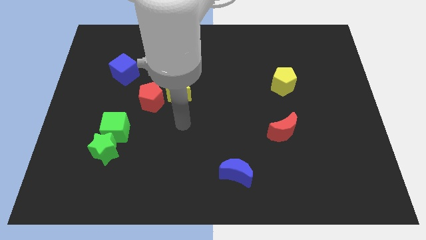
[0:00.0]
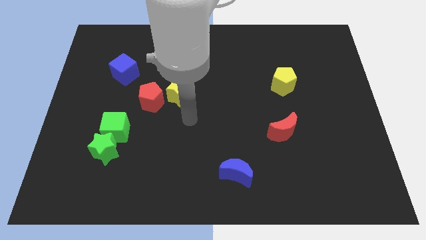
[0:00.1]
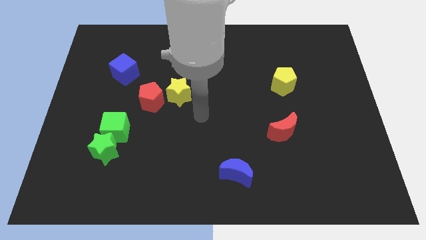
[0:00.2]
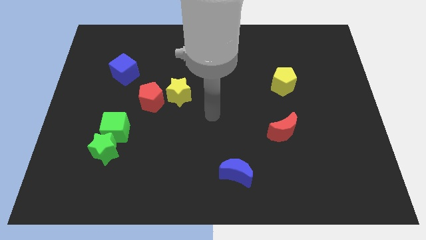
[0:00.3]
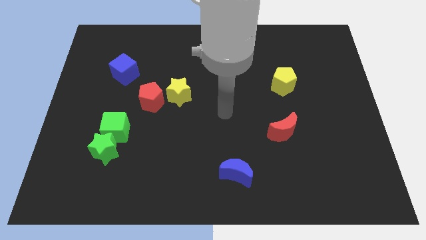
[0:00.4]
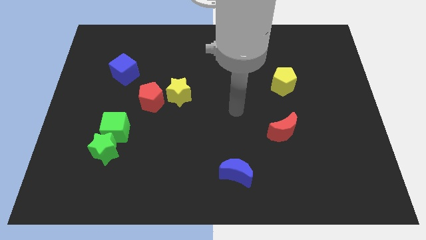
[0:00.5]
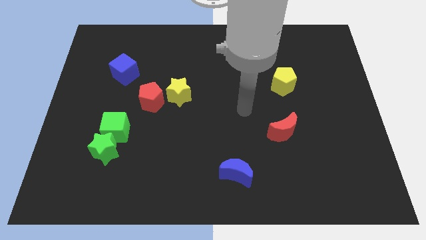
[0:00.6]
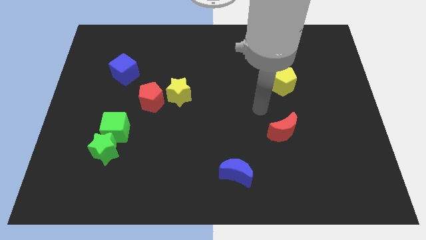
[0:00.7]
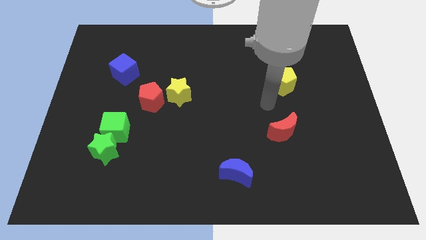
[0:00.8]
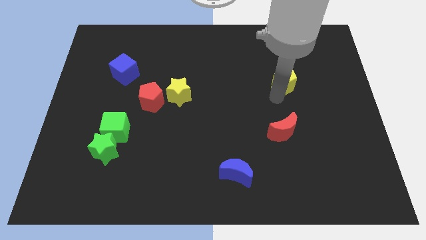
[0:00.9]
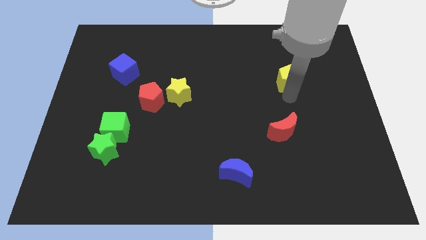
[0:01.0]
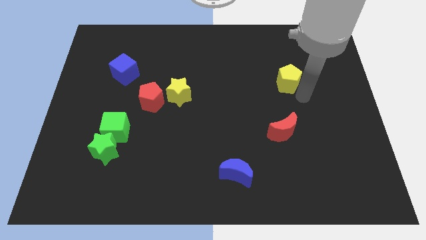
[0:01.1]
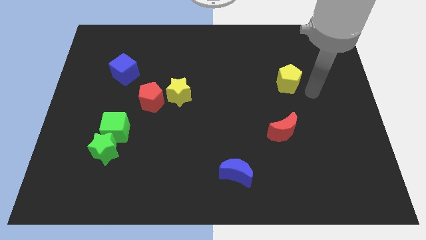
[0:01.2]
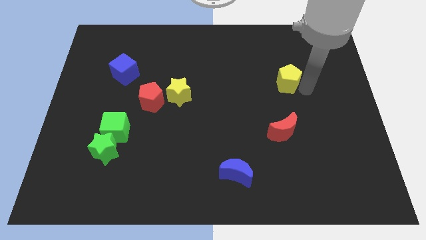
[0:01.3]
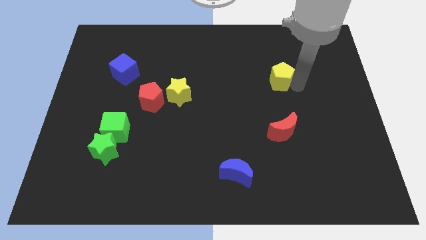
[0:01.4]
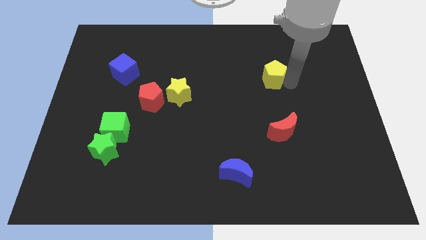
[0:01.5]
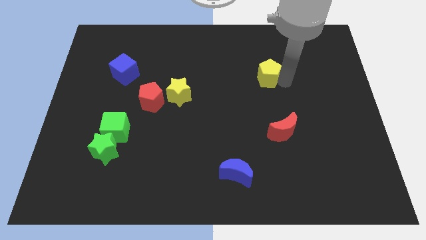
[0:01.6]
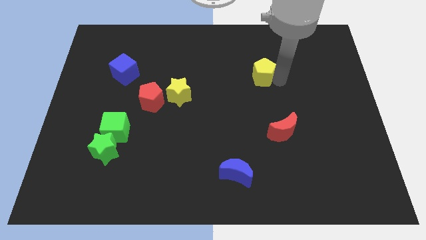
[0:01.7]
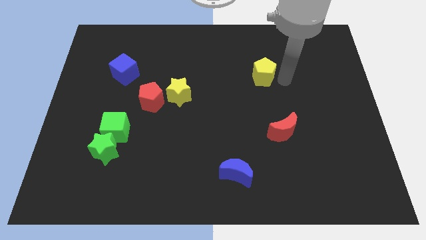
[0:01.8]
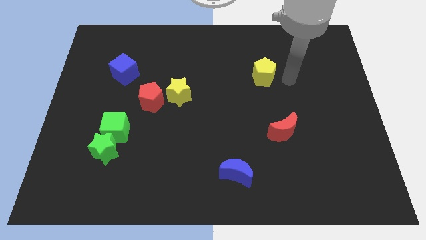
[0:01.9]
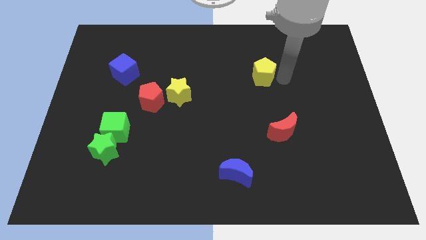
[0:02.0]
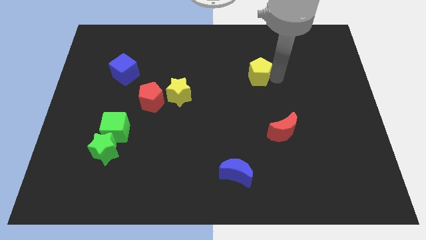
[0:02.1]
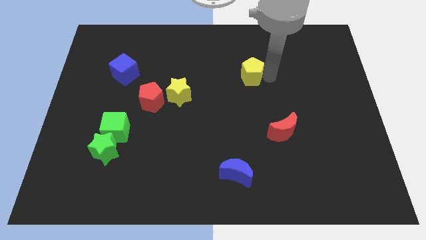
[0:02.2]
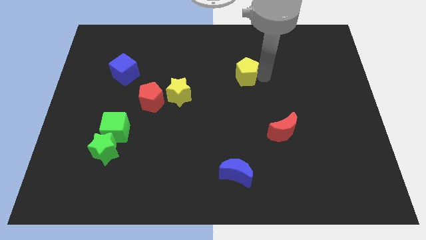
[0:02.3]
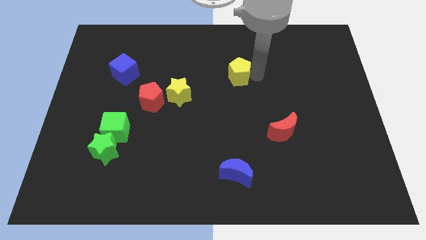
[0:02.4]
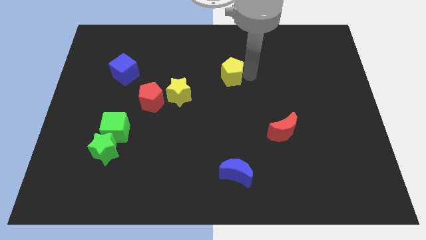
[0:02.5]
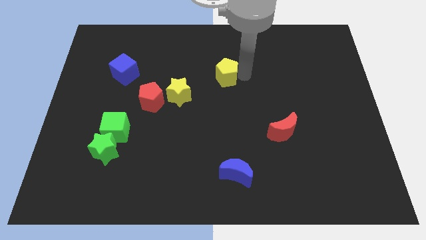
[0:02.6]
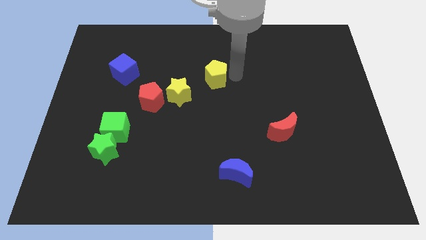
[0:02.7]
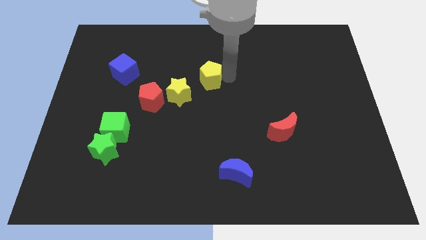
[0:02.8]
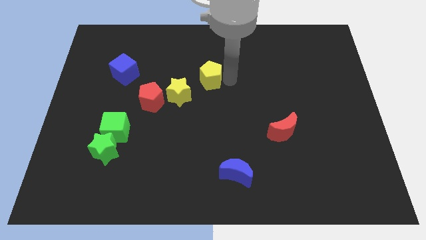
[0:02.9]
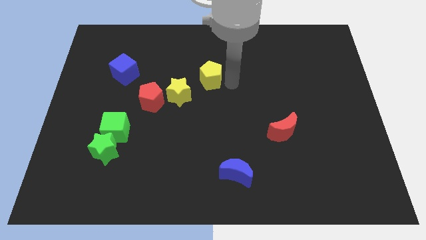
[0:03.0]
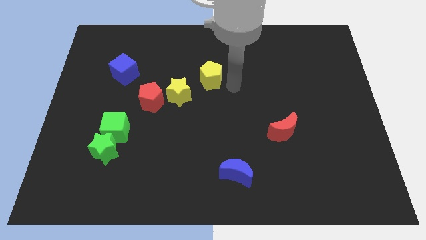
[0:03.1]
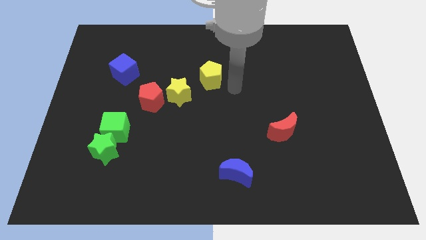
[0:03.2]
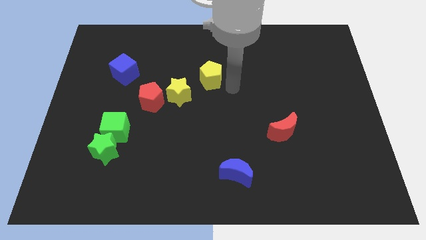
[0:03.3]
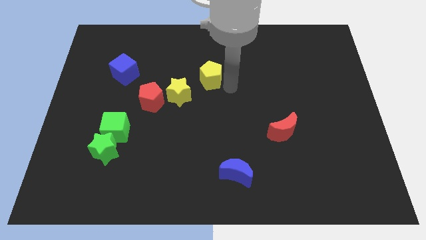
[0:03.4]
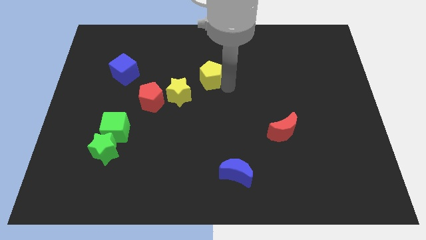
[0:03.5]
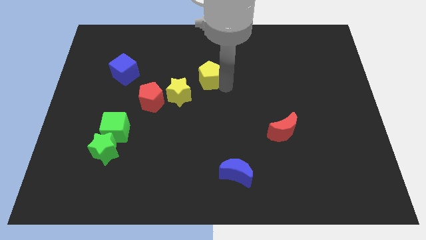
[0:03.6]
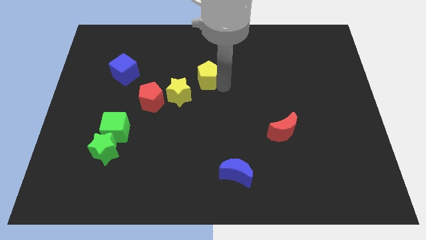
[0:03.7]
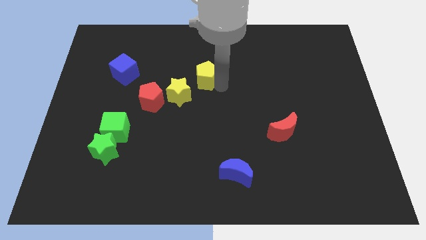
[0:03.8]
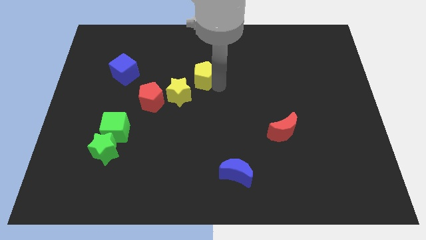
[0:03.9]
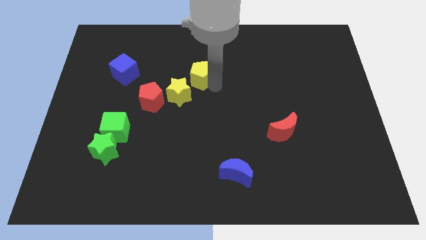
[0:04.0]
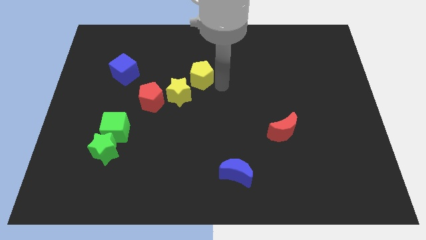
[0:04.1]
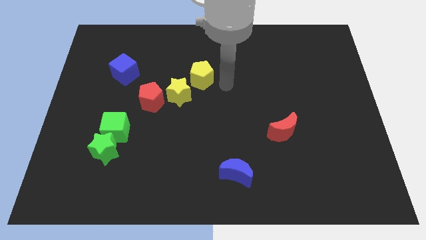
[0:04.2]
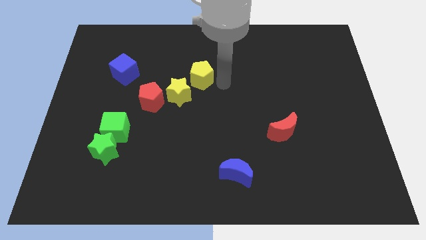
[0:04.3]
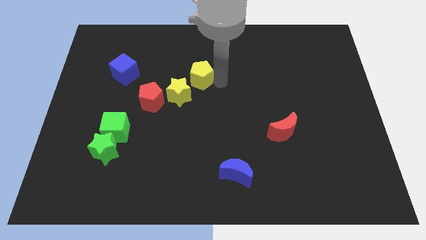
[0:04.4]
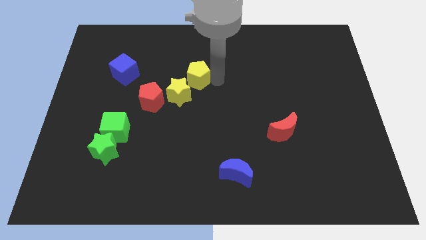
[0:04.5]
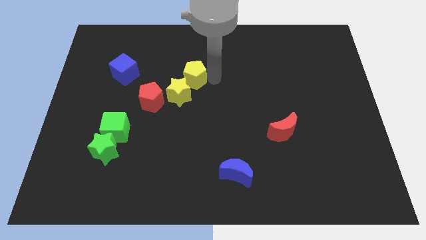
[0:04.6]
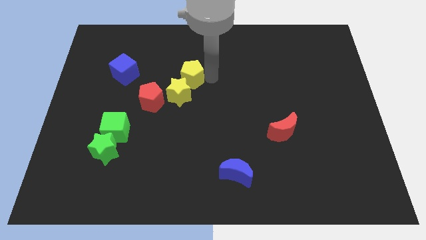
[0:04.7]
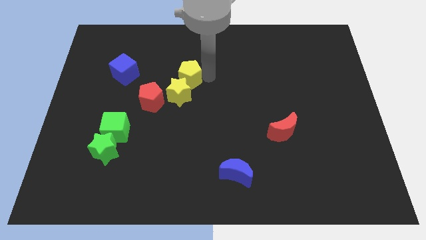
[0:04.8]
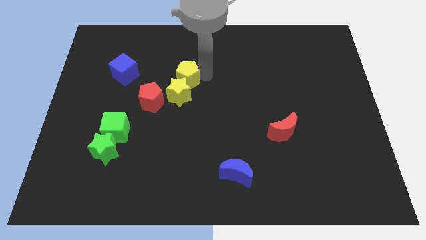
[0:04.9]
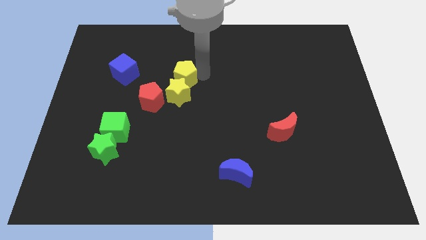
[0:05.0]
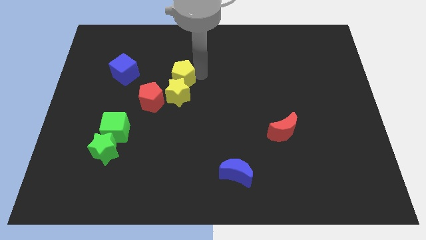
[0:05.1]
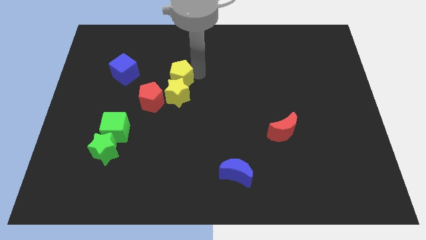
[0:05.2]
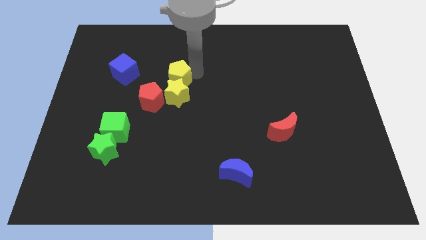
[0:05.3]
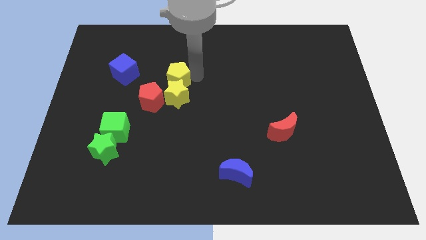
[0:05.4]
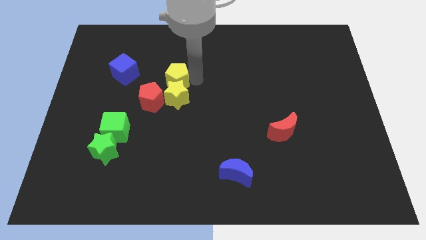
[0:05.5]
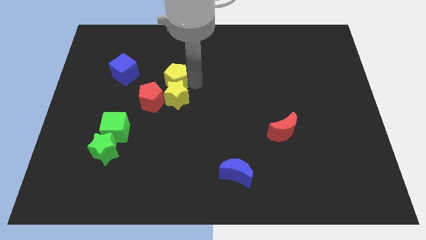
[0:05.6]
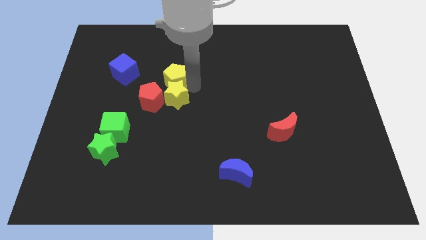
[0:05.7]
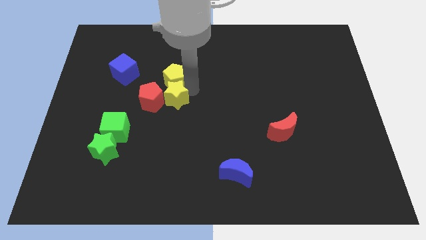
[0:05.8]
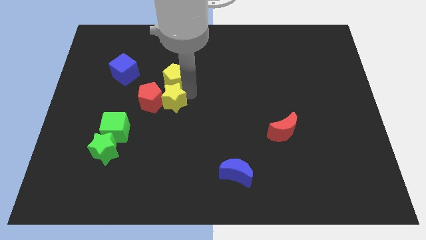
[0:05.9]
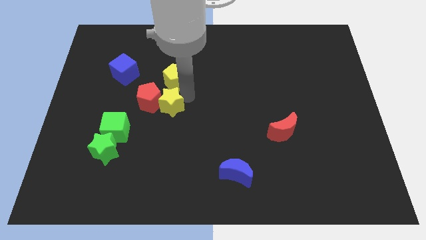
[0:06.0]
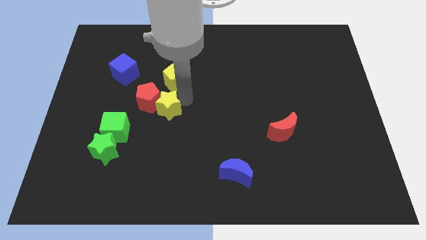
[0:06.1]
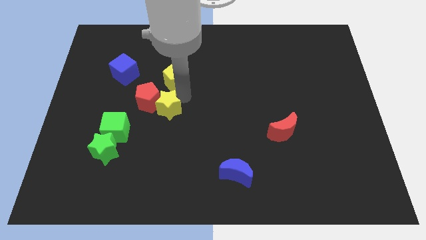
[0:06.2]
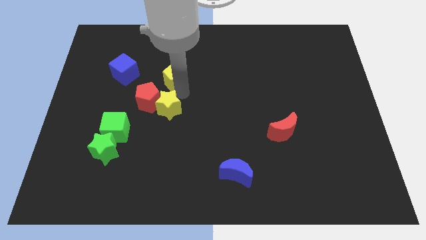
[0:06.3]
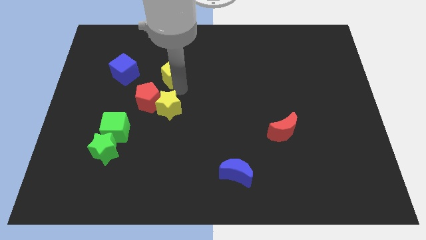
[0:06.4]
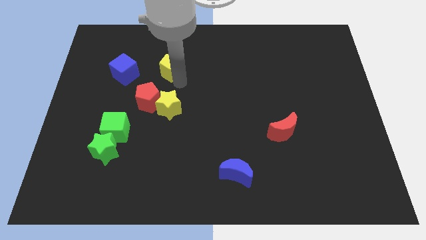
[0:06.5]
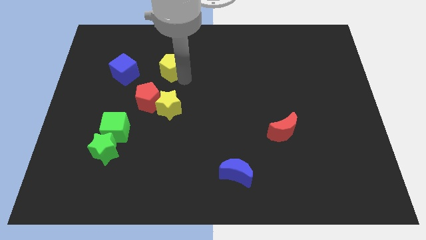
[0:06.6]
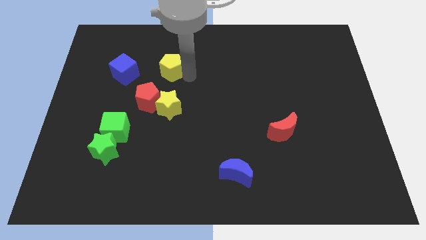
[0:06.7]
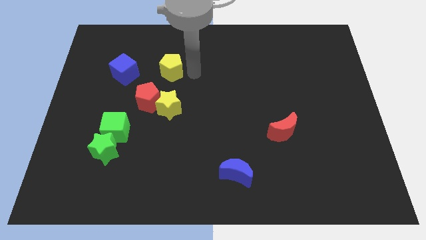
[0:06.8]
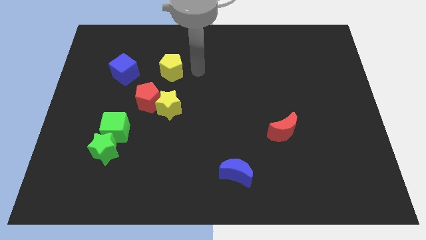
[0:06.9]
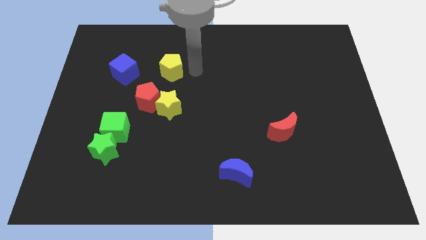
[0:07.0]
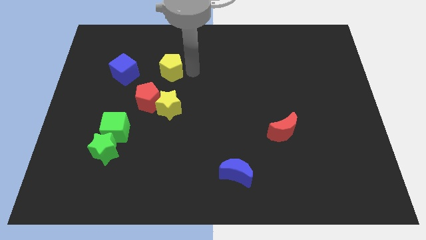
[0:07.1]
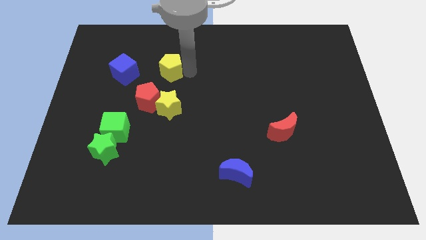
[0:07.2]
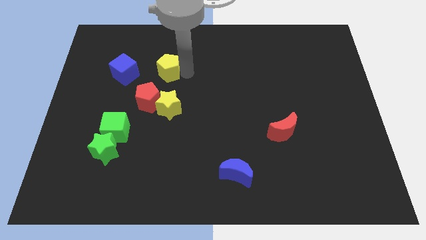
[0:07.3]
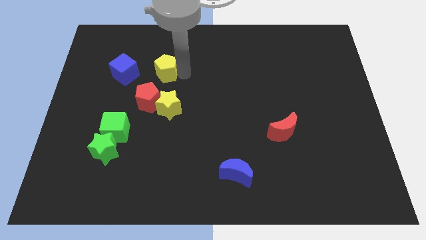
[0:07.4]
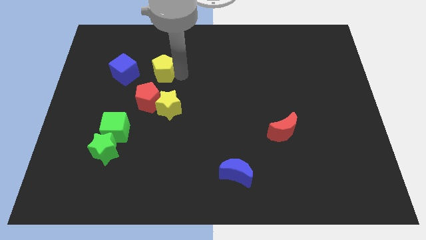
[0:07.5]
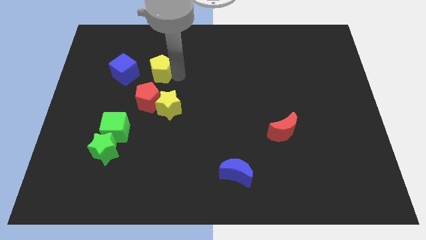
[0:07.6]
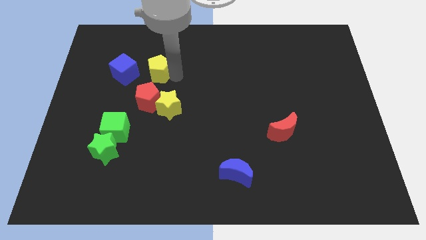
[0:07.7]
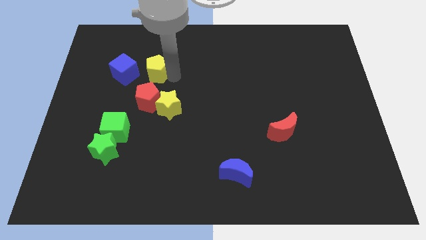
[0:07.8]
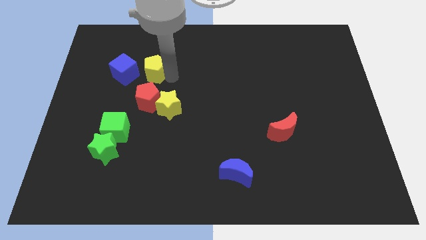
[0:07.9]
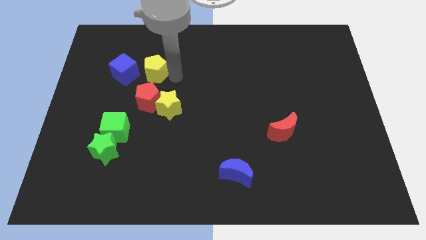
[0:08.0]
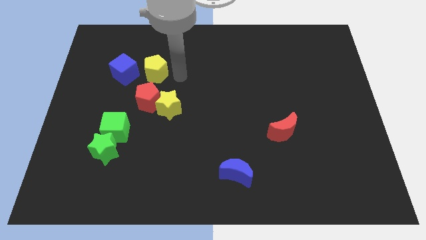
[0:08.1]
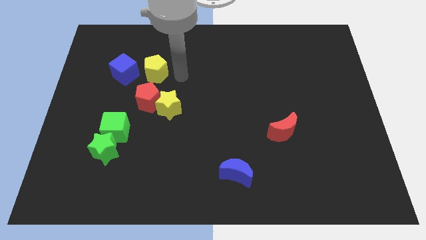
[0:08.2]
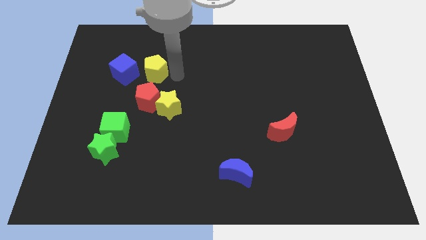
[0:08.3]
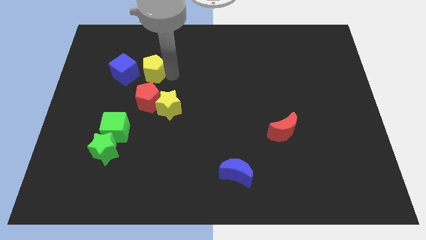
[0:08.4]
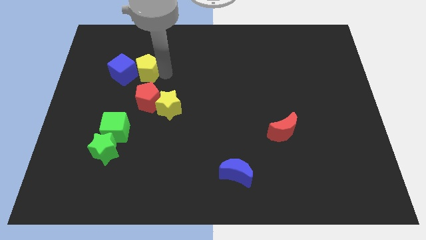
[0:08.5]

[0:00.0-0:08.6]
push the yellow pentagon towards the blue cube
